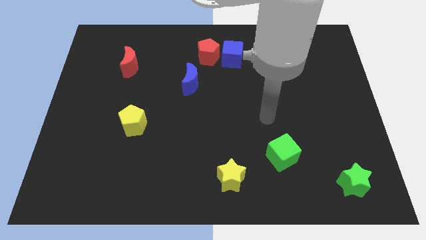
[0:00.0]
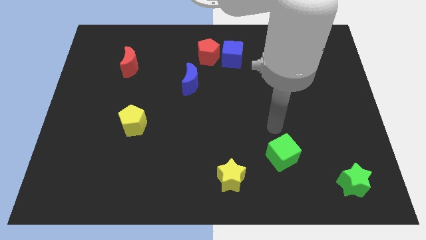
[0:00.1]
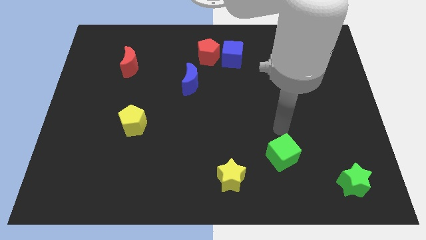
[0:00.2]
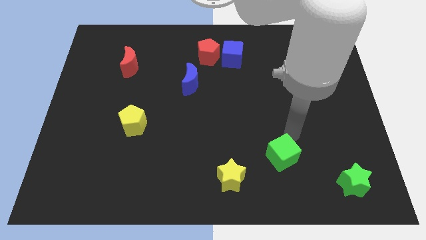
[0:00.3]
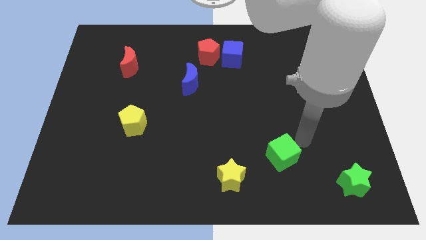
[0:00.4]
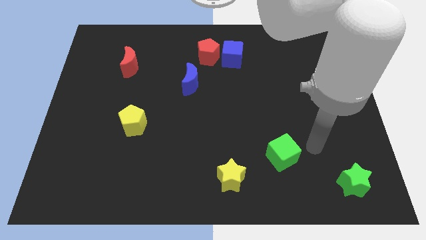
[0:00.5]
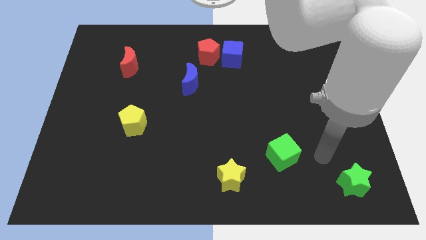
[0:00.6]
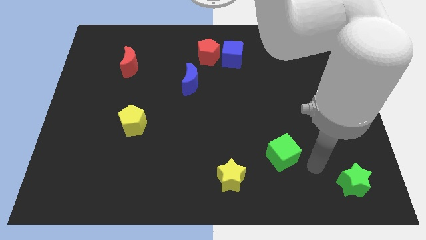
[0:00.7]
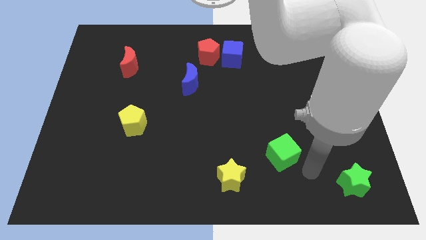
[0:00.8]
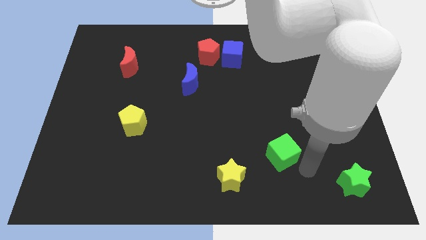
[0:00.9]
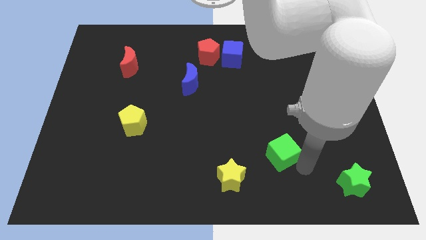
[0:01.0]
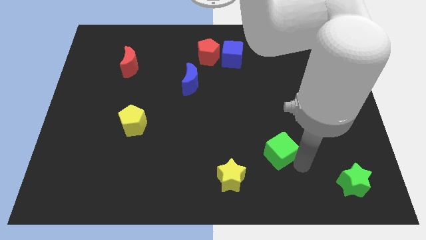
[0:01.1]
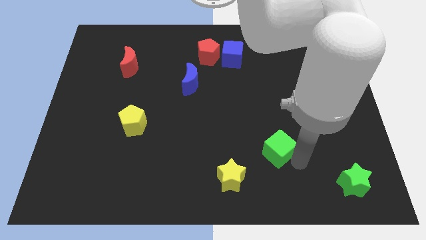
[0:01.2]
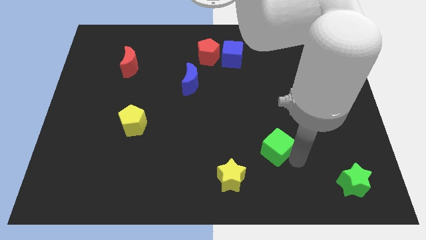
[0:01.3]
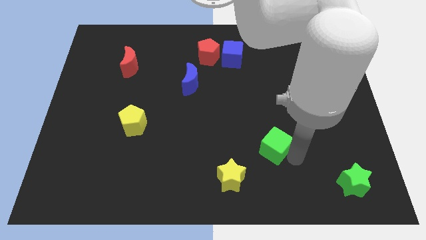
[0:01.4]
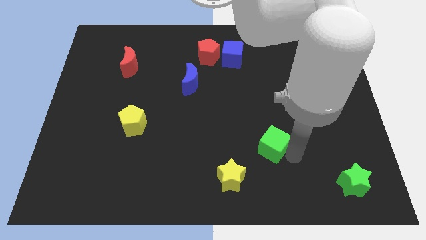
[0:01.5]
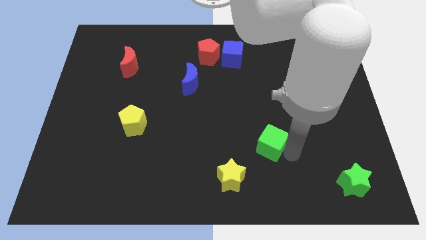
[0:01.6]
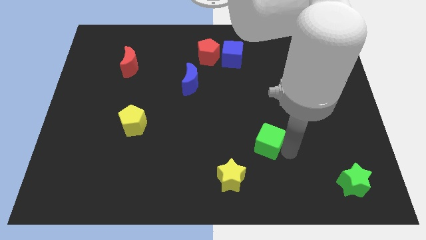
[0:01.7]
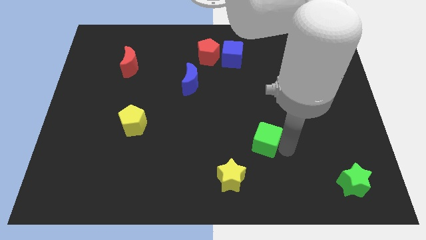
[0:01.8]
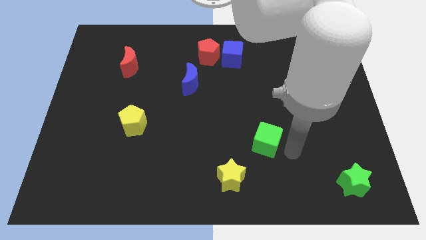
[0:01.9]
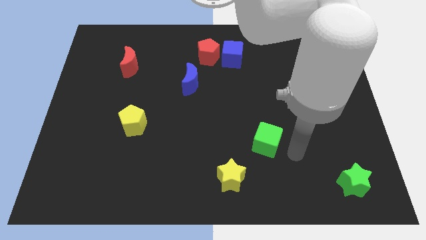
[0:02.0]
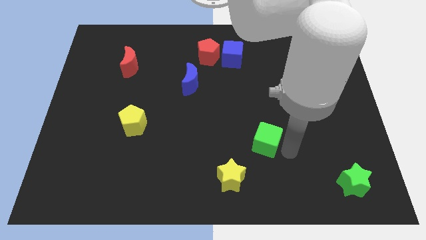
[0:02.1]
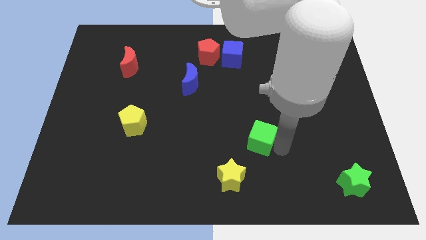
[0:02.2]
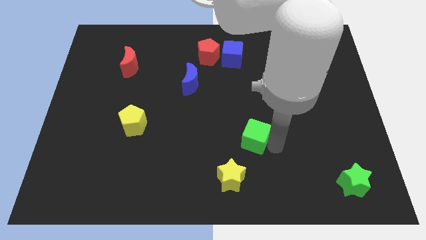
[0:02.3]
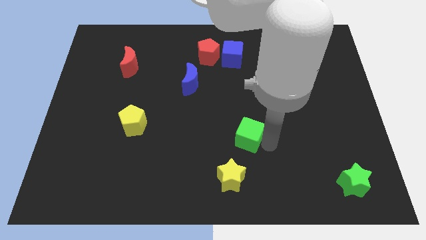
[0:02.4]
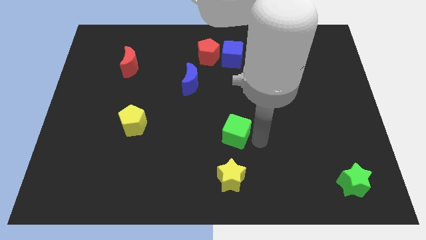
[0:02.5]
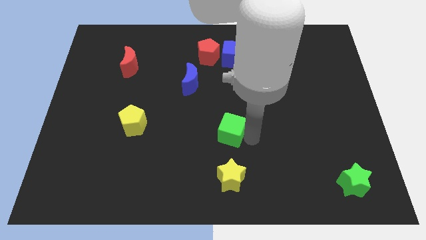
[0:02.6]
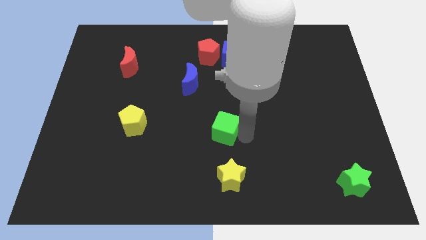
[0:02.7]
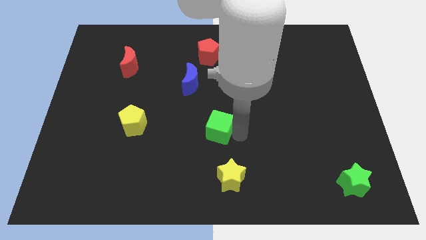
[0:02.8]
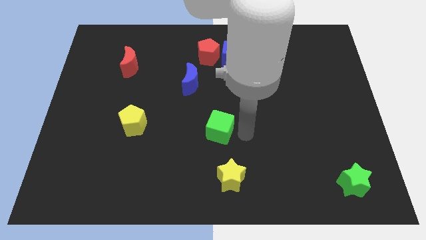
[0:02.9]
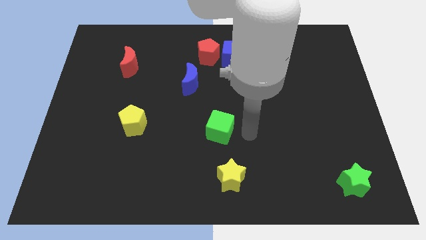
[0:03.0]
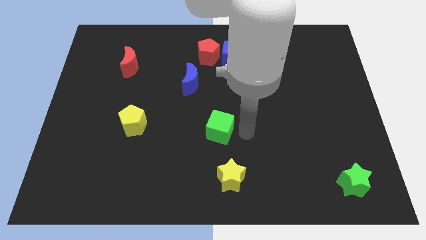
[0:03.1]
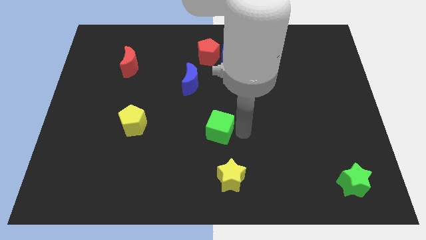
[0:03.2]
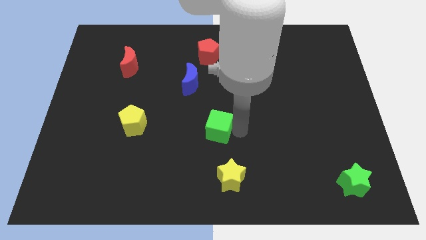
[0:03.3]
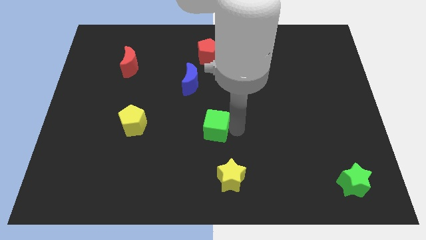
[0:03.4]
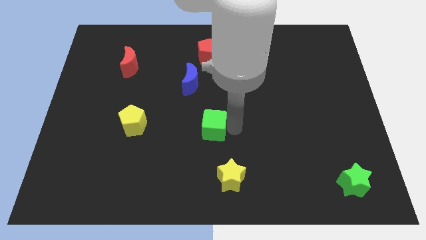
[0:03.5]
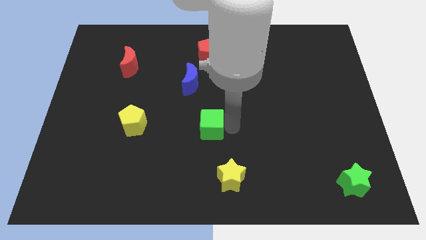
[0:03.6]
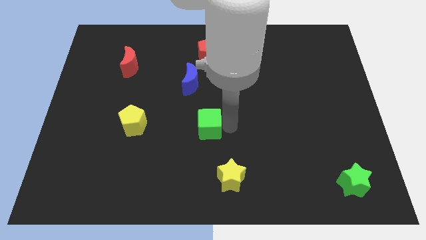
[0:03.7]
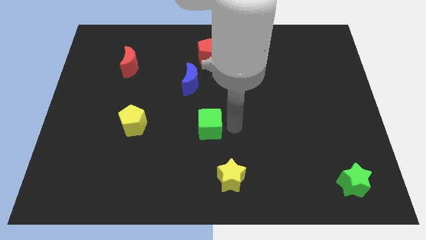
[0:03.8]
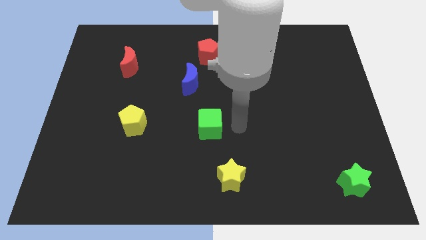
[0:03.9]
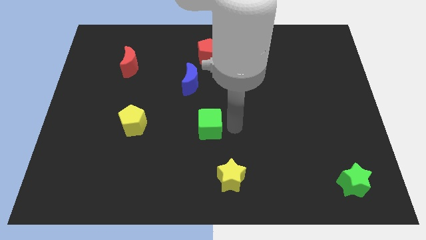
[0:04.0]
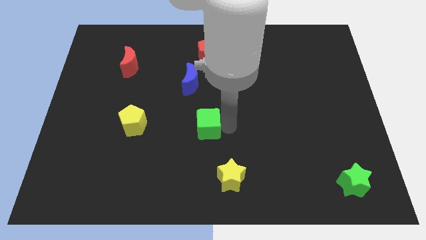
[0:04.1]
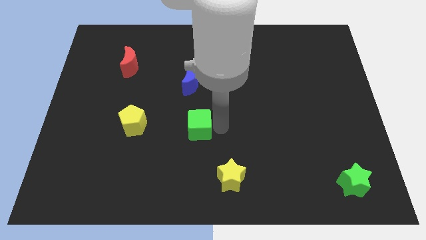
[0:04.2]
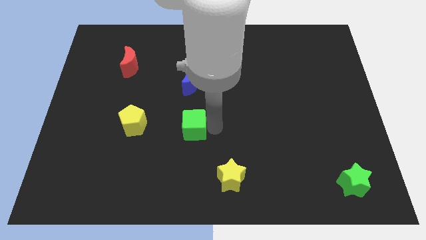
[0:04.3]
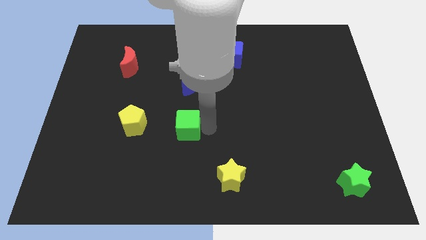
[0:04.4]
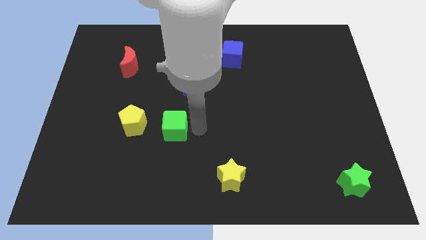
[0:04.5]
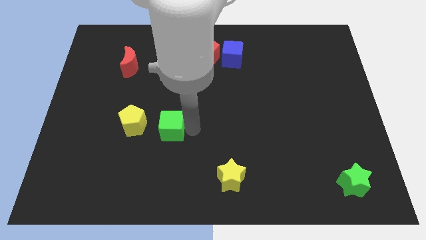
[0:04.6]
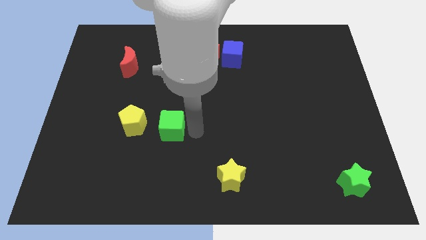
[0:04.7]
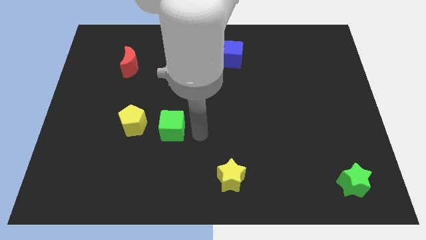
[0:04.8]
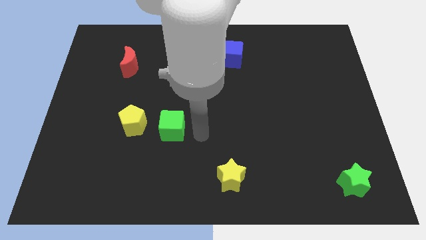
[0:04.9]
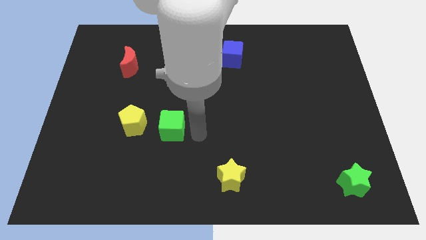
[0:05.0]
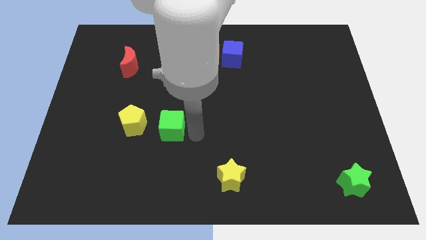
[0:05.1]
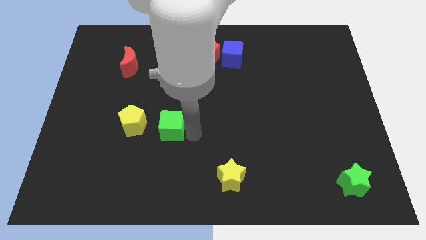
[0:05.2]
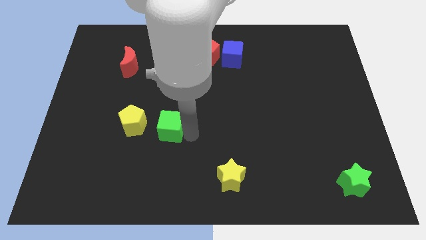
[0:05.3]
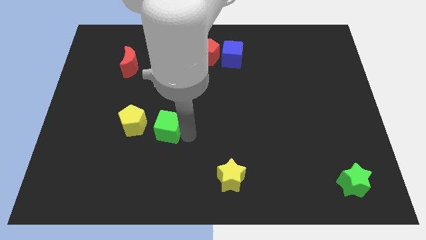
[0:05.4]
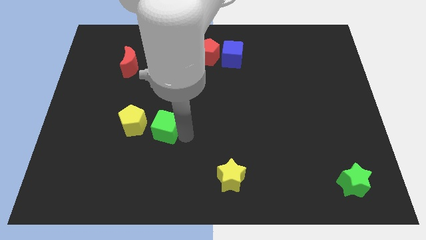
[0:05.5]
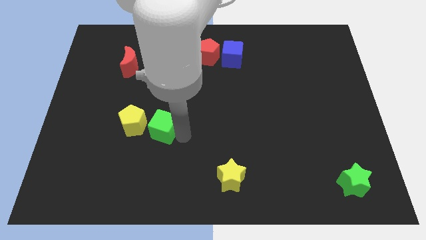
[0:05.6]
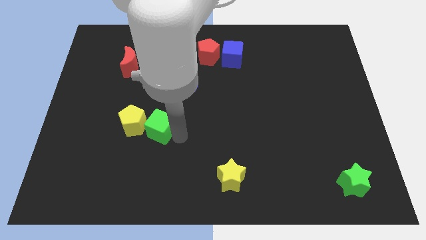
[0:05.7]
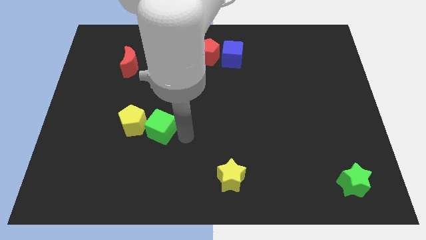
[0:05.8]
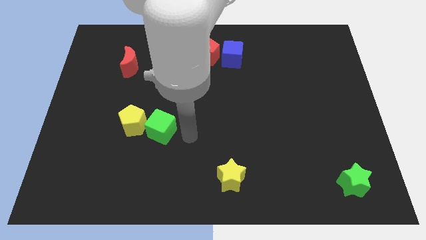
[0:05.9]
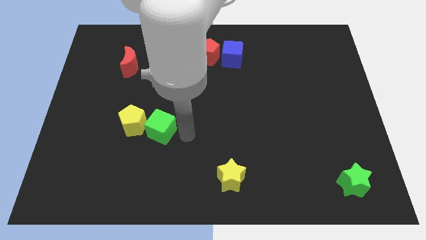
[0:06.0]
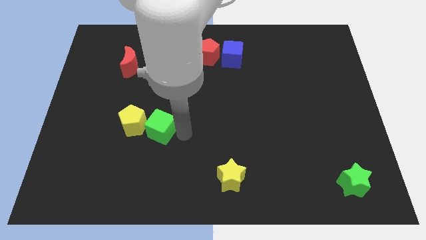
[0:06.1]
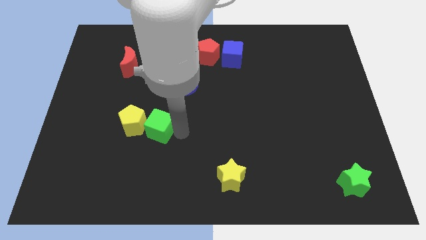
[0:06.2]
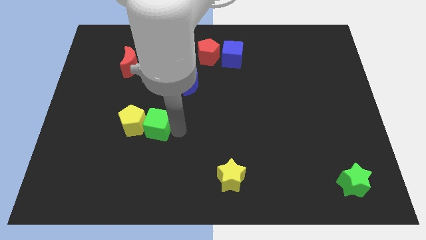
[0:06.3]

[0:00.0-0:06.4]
put the green cube next to the yellow pentagon

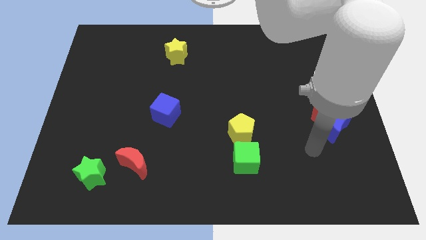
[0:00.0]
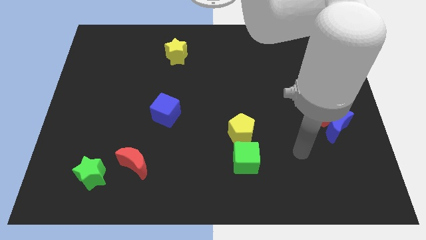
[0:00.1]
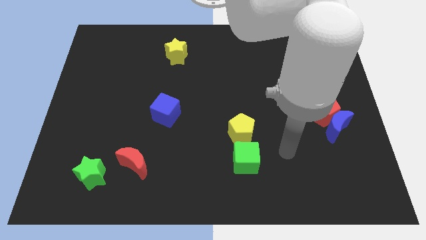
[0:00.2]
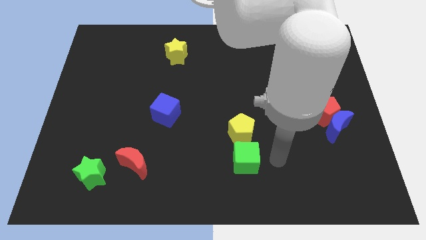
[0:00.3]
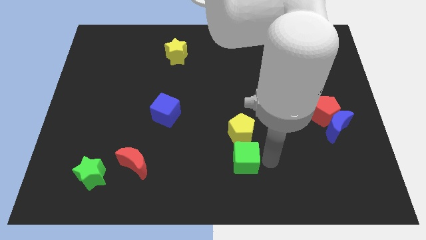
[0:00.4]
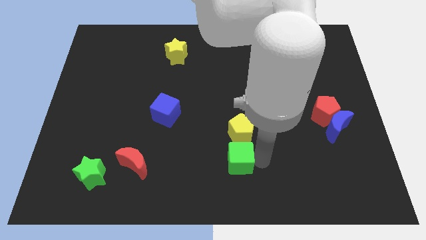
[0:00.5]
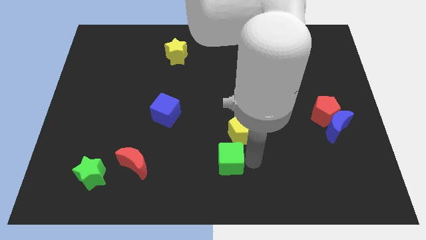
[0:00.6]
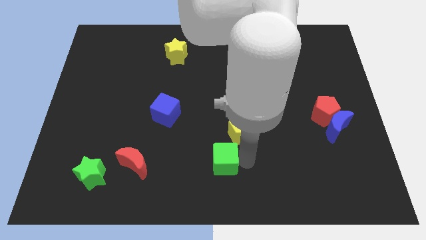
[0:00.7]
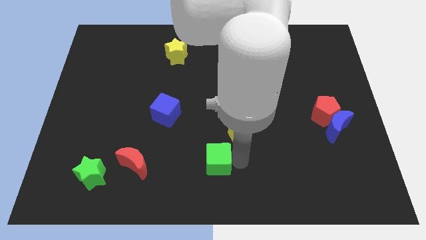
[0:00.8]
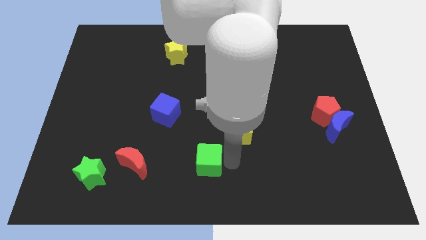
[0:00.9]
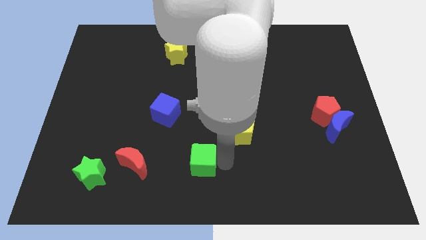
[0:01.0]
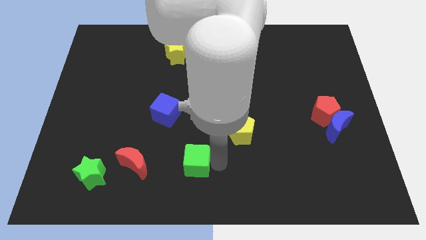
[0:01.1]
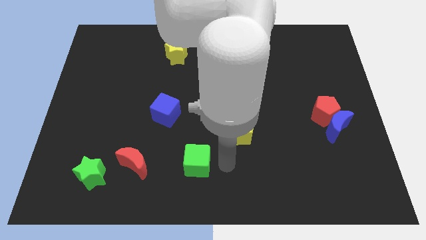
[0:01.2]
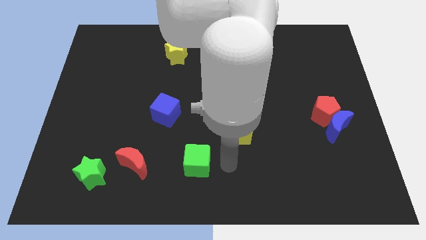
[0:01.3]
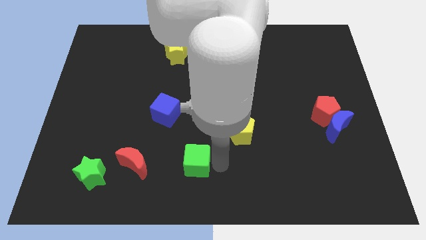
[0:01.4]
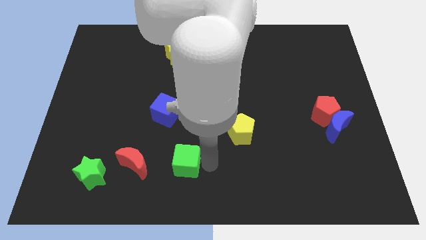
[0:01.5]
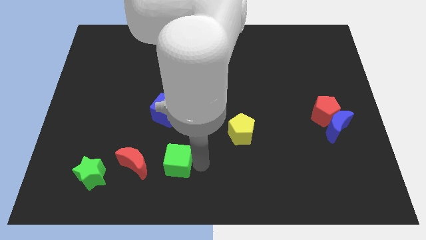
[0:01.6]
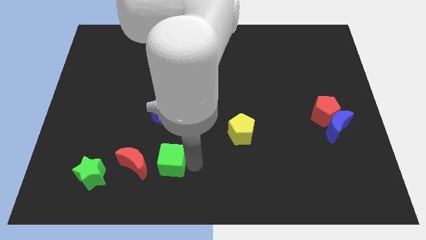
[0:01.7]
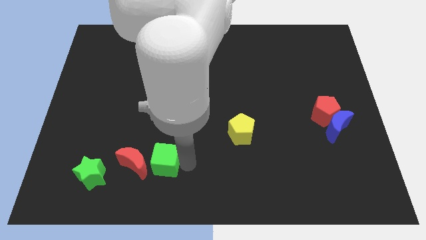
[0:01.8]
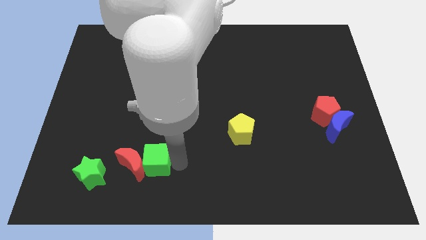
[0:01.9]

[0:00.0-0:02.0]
put the green cube to the red moon
